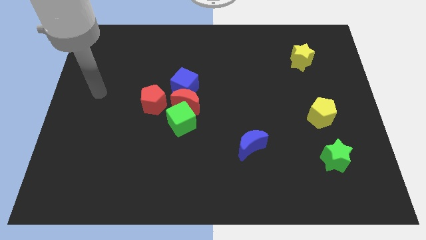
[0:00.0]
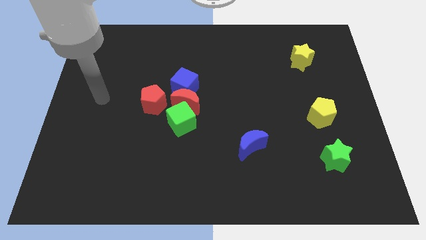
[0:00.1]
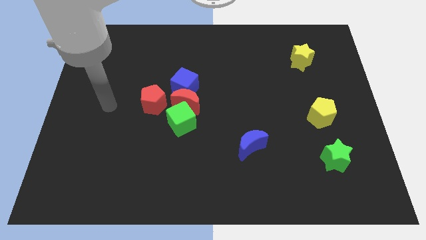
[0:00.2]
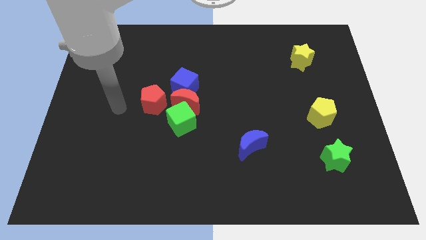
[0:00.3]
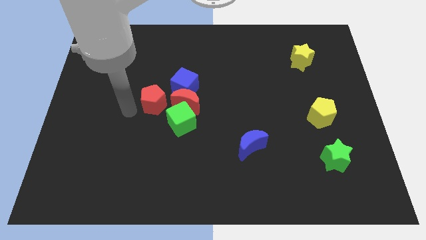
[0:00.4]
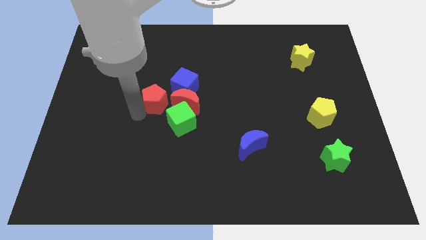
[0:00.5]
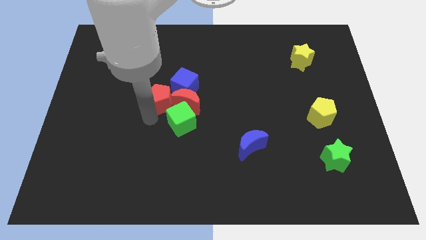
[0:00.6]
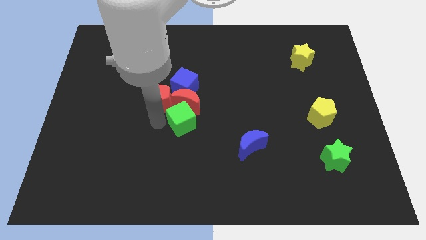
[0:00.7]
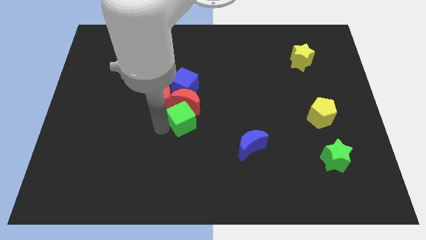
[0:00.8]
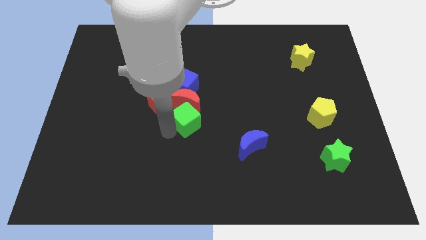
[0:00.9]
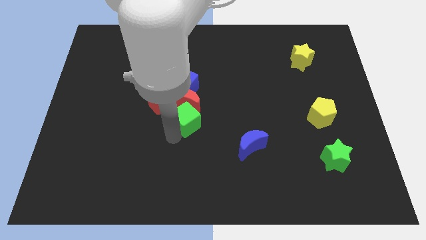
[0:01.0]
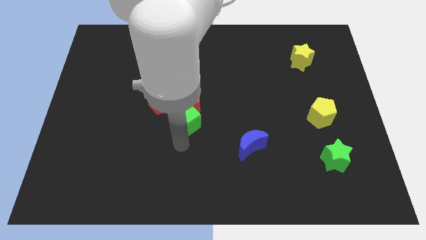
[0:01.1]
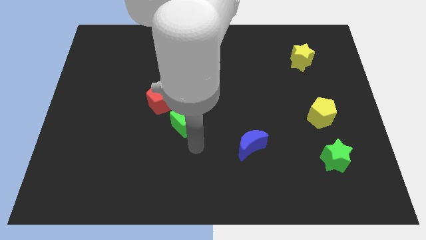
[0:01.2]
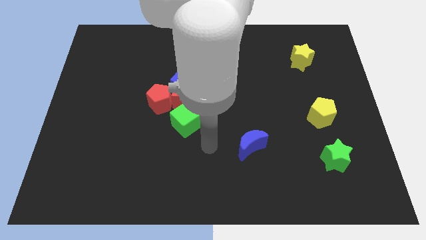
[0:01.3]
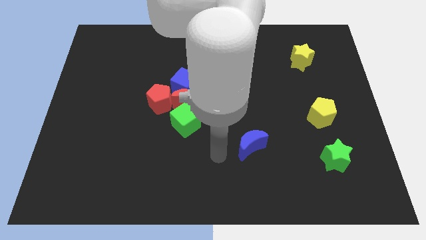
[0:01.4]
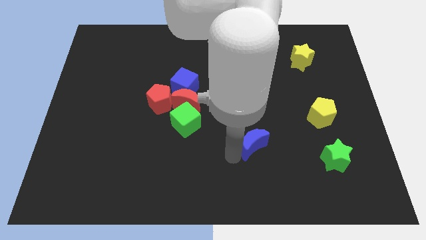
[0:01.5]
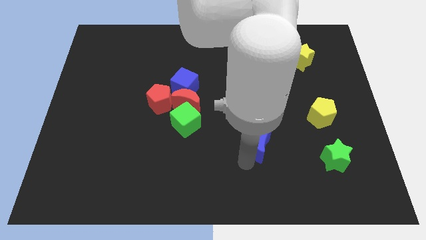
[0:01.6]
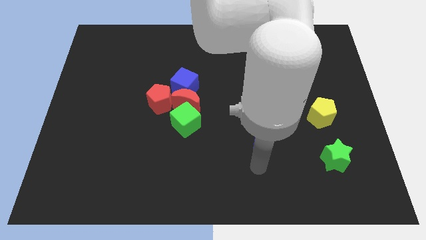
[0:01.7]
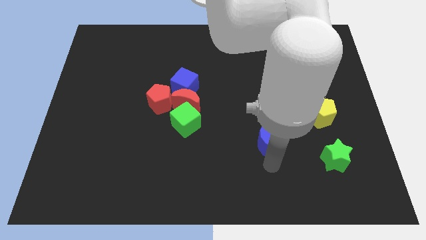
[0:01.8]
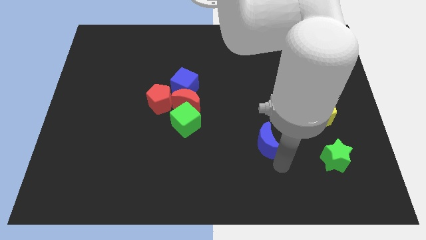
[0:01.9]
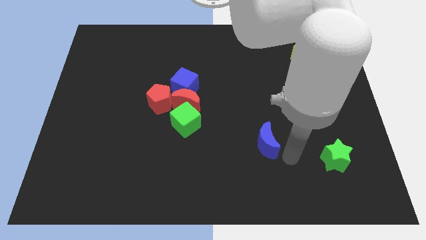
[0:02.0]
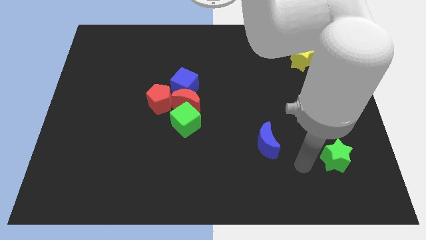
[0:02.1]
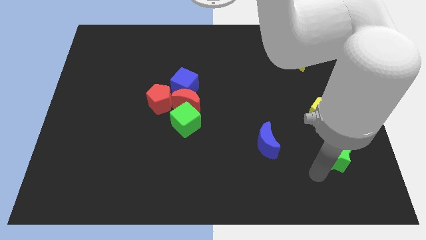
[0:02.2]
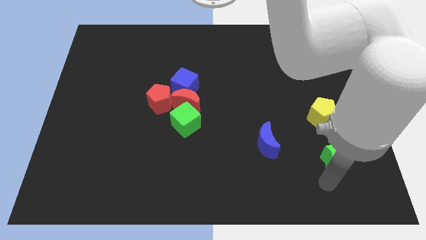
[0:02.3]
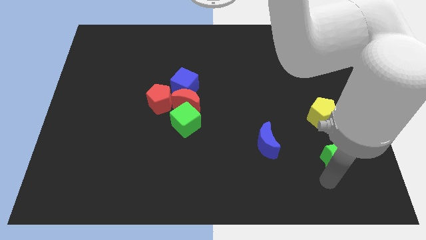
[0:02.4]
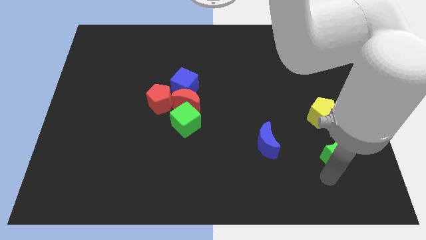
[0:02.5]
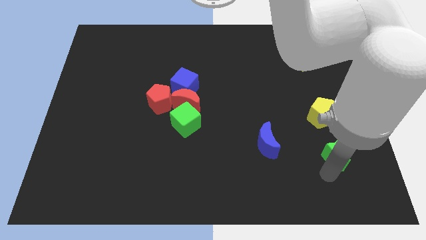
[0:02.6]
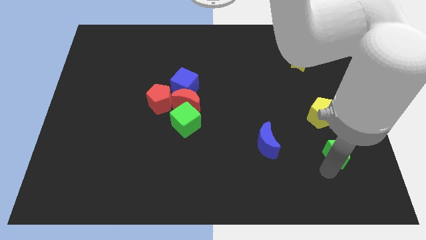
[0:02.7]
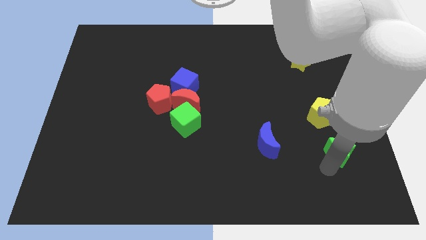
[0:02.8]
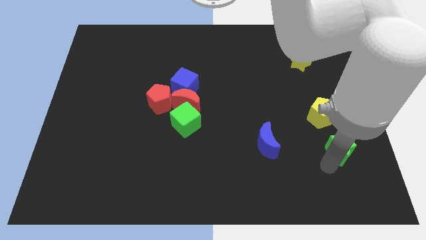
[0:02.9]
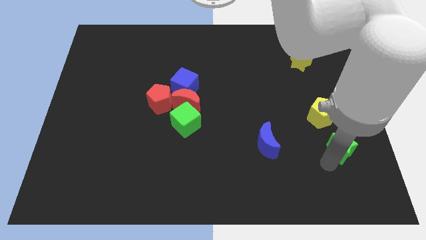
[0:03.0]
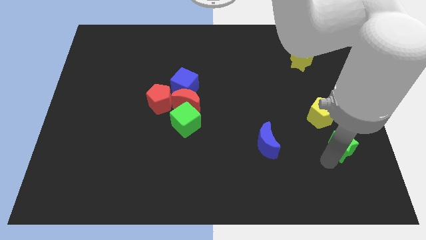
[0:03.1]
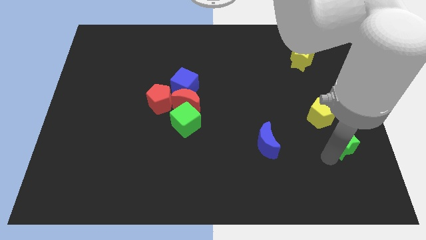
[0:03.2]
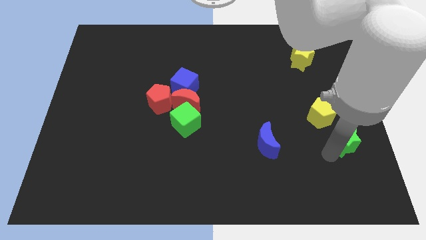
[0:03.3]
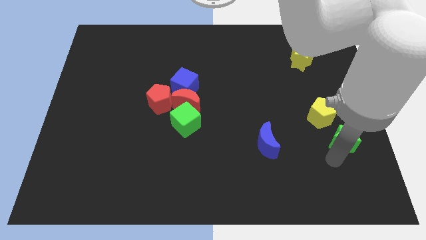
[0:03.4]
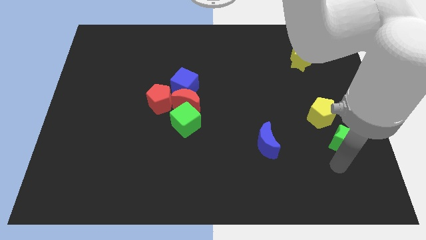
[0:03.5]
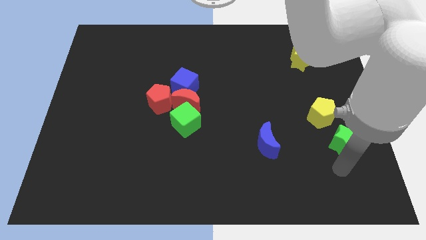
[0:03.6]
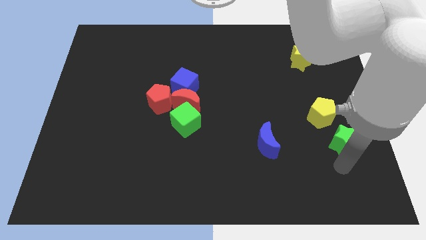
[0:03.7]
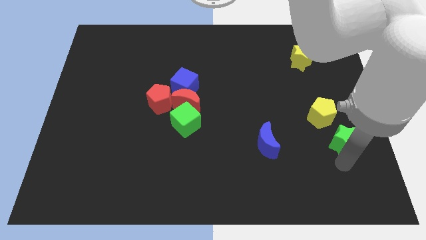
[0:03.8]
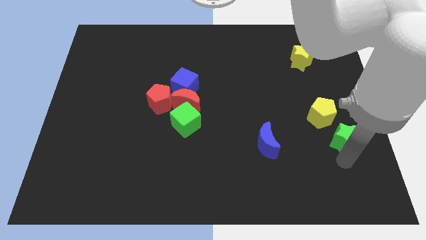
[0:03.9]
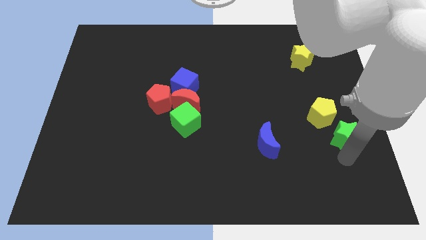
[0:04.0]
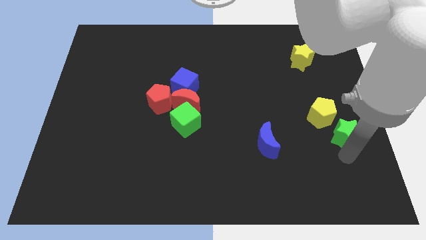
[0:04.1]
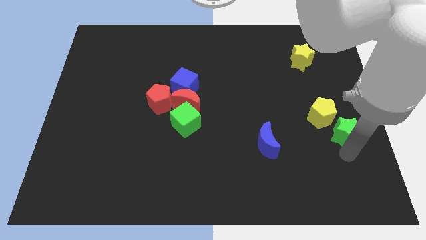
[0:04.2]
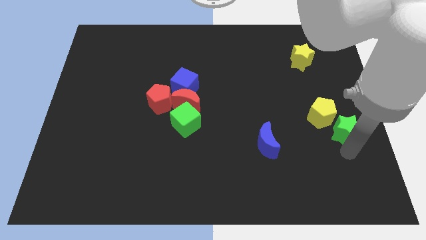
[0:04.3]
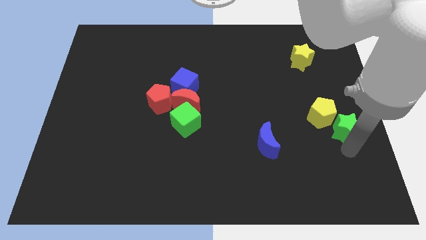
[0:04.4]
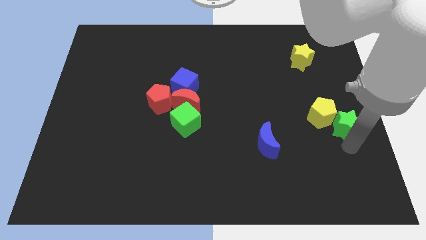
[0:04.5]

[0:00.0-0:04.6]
push the green star up a bit

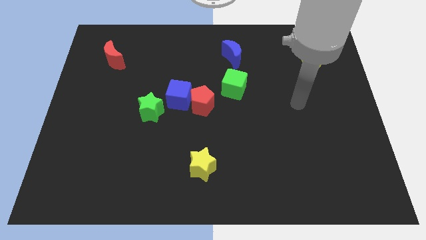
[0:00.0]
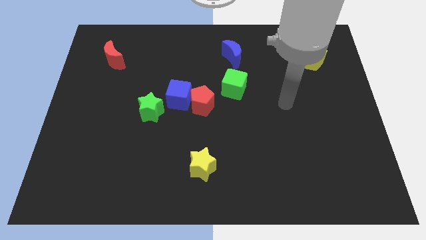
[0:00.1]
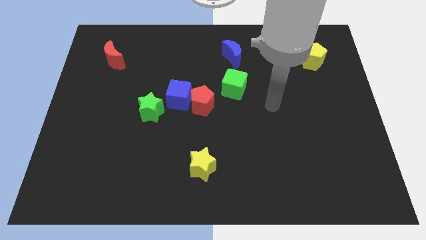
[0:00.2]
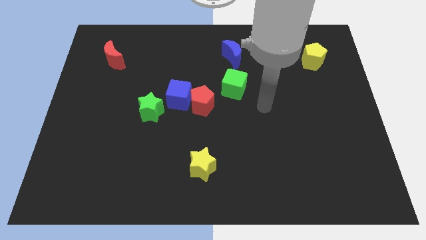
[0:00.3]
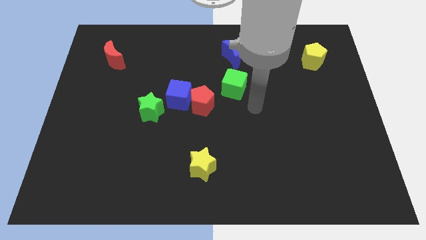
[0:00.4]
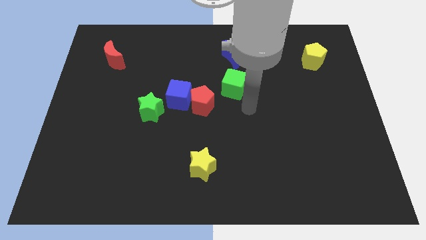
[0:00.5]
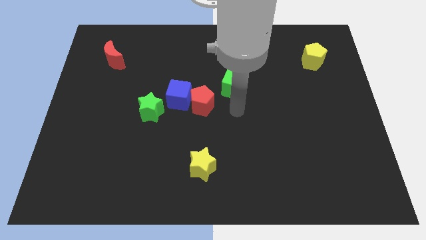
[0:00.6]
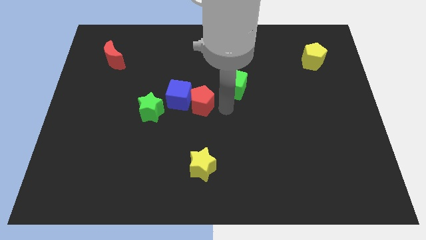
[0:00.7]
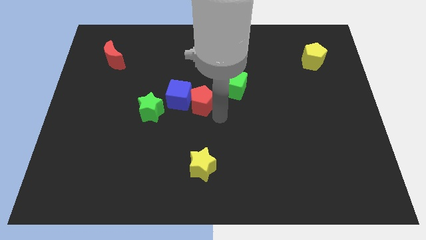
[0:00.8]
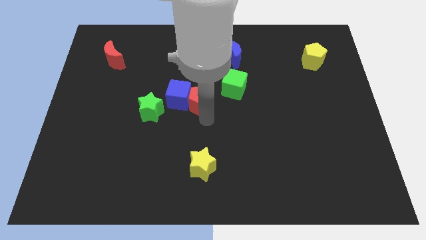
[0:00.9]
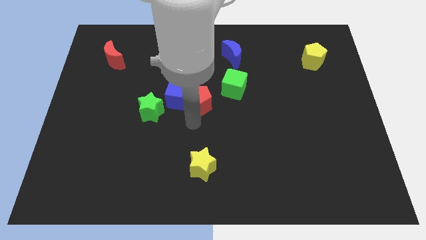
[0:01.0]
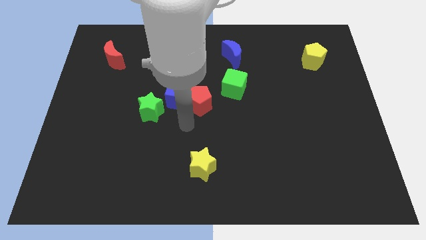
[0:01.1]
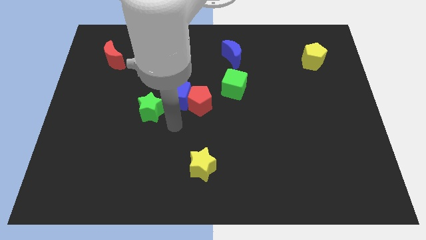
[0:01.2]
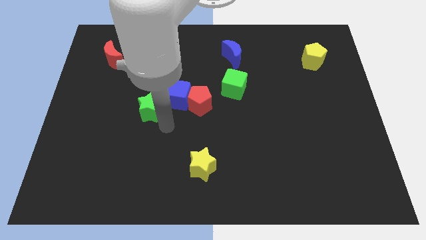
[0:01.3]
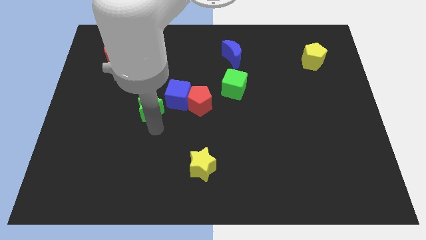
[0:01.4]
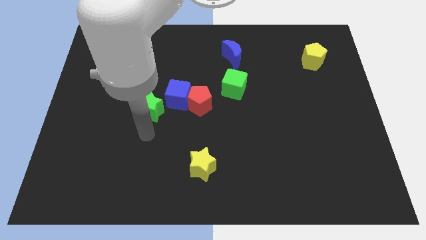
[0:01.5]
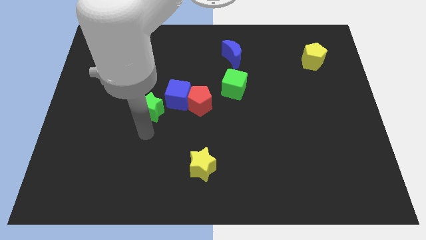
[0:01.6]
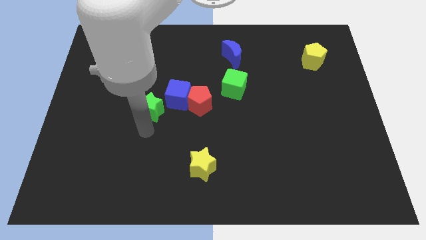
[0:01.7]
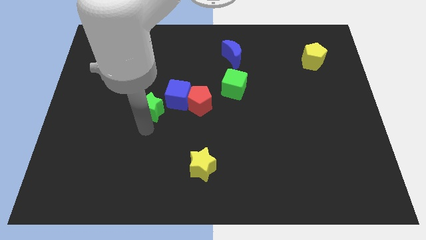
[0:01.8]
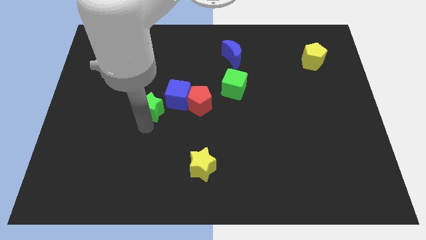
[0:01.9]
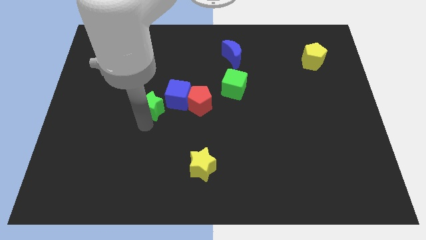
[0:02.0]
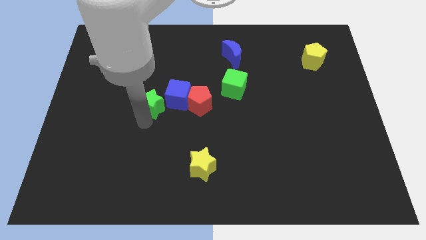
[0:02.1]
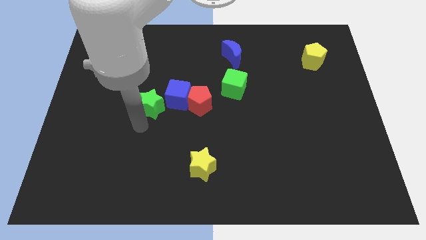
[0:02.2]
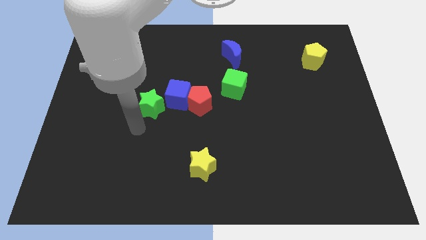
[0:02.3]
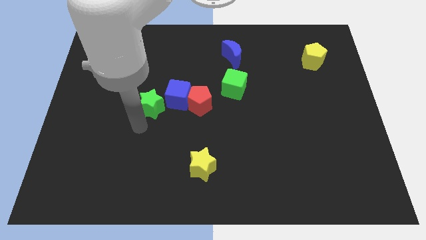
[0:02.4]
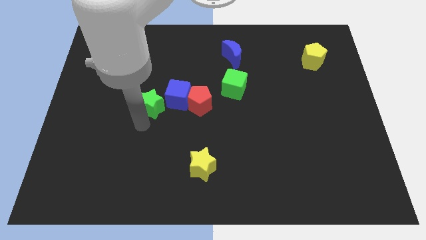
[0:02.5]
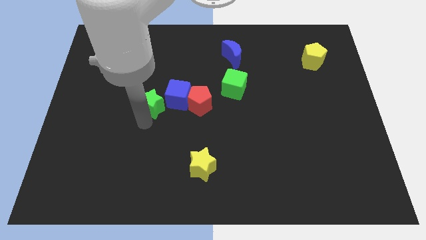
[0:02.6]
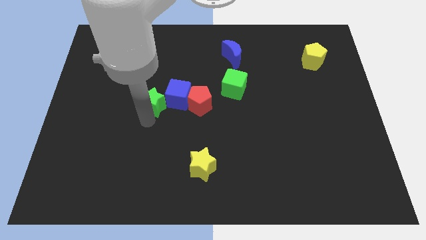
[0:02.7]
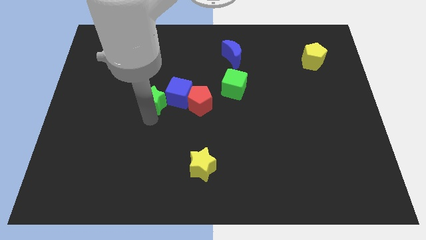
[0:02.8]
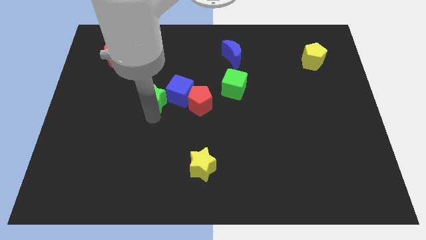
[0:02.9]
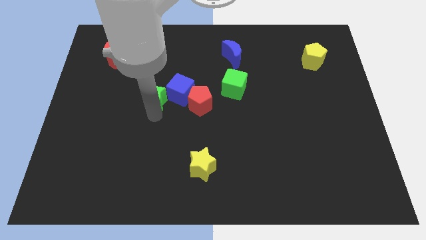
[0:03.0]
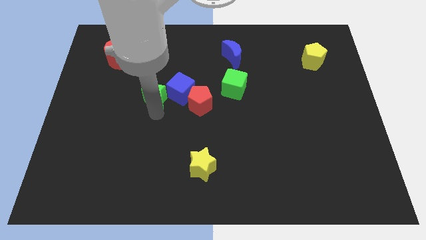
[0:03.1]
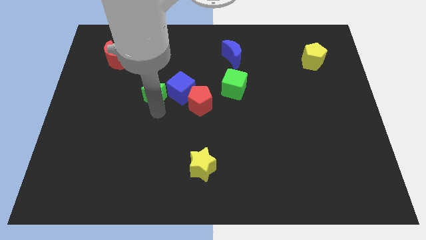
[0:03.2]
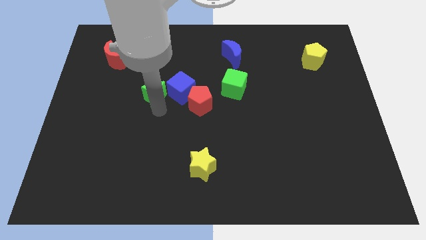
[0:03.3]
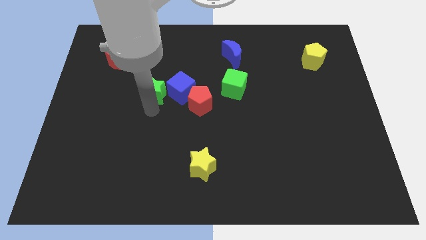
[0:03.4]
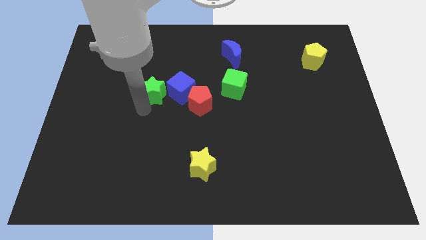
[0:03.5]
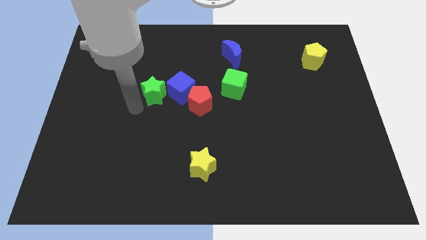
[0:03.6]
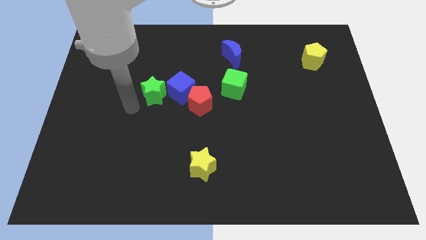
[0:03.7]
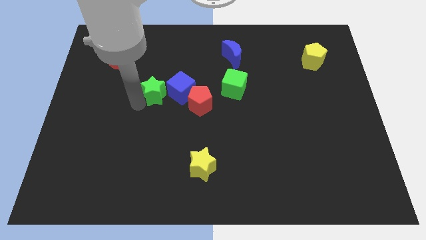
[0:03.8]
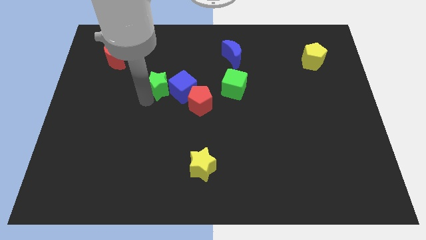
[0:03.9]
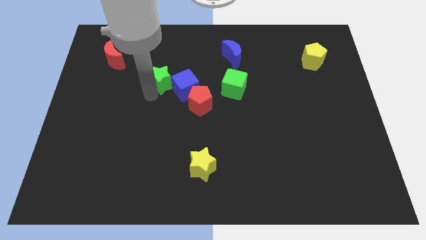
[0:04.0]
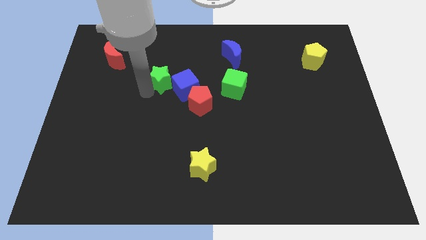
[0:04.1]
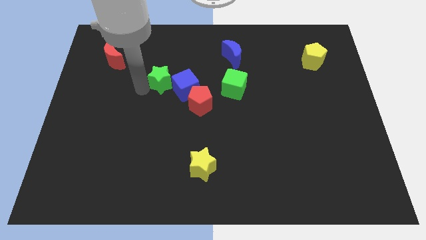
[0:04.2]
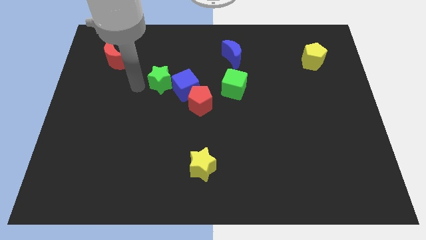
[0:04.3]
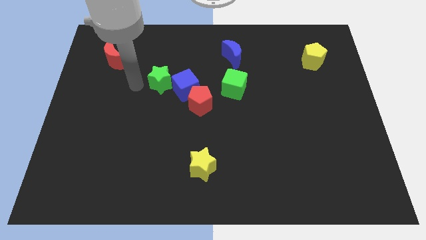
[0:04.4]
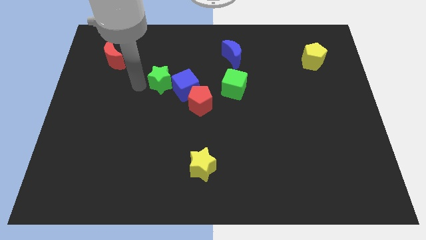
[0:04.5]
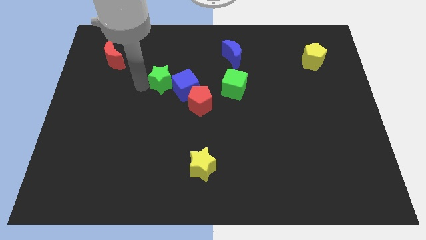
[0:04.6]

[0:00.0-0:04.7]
push the green star a little up and to the right
